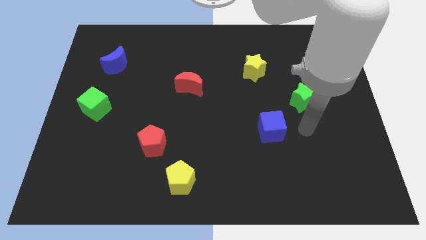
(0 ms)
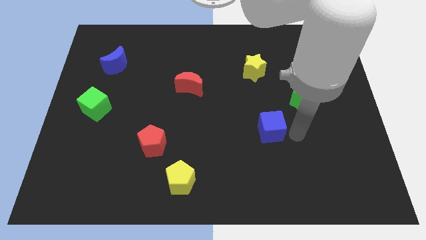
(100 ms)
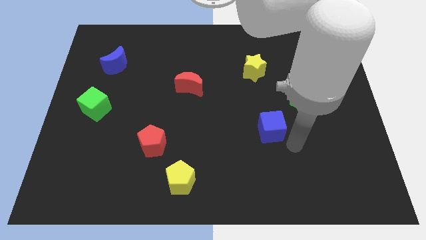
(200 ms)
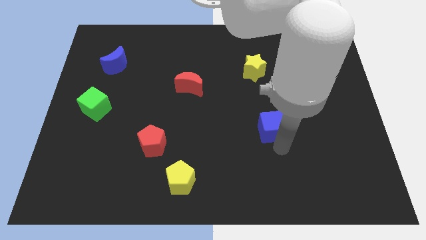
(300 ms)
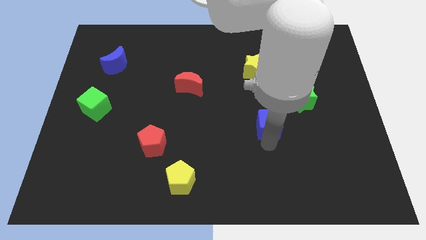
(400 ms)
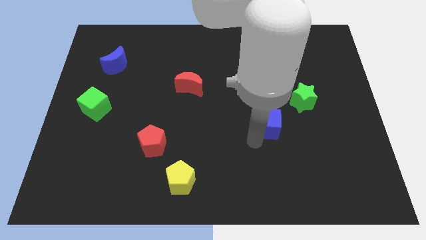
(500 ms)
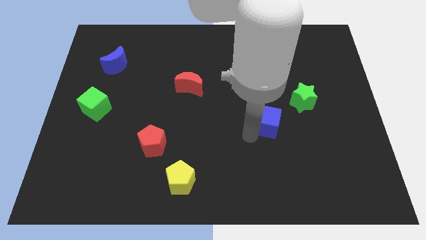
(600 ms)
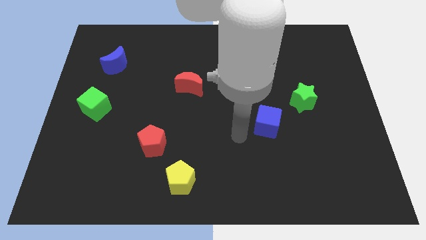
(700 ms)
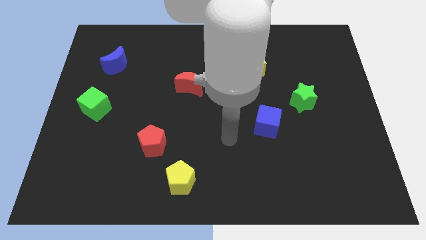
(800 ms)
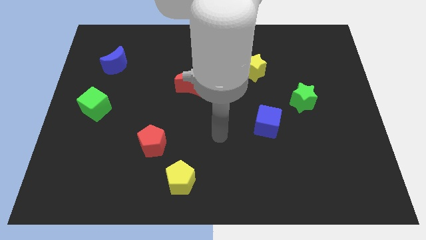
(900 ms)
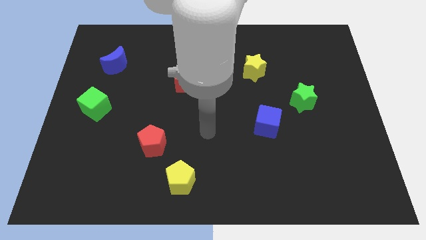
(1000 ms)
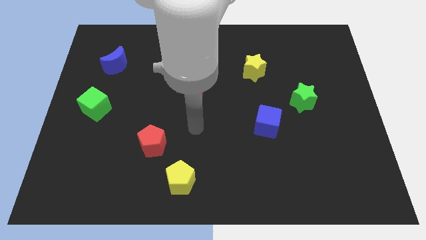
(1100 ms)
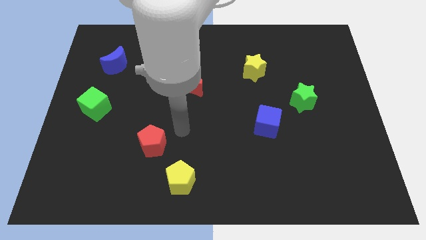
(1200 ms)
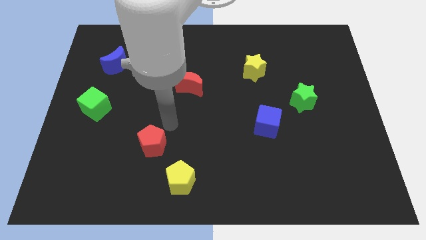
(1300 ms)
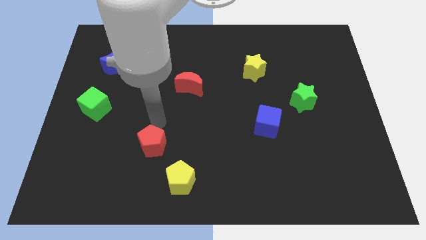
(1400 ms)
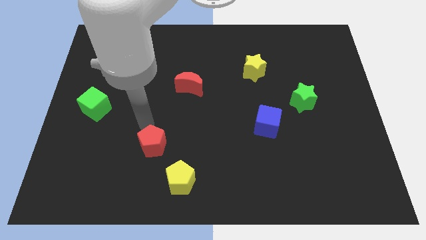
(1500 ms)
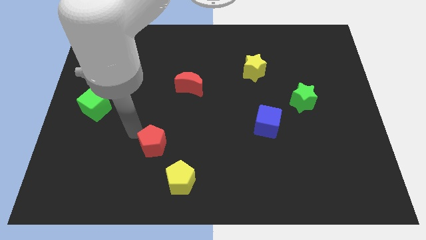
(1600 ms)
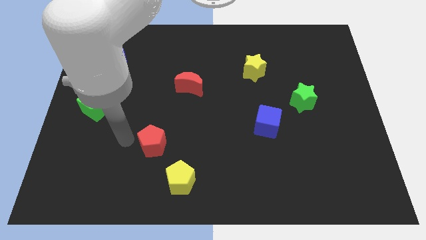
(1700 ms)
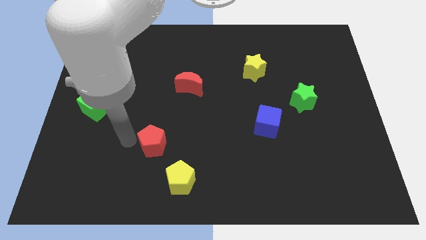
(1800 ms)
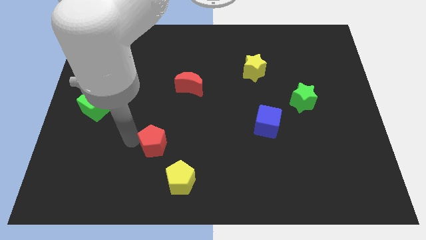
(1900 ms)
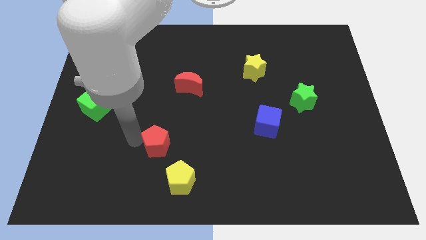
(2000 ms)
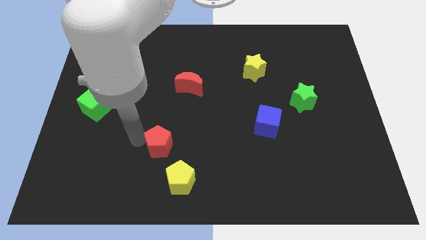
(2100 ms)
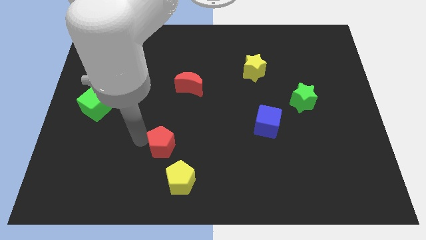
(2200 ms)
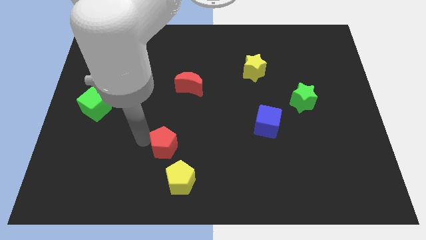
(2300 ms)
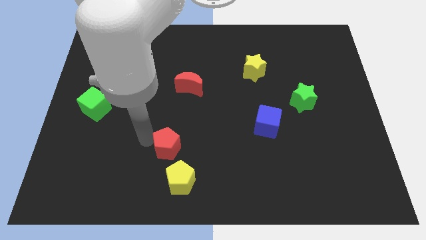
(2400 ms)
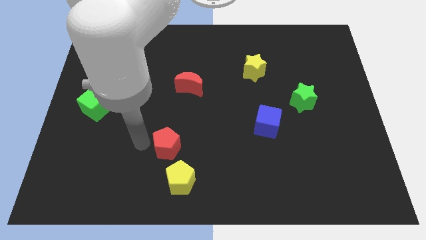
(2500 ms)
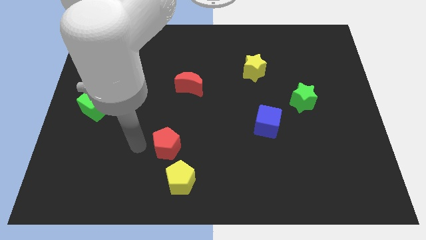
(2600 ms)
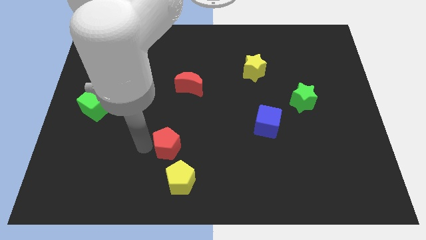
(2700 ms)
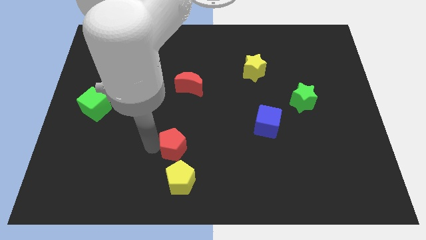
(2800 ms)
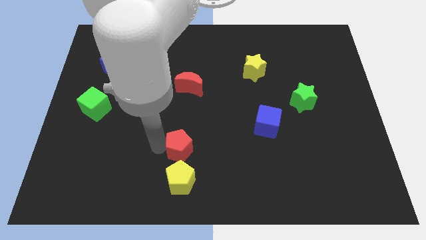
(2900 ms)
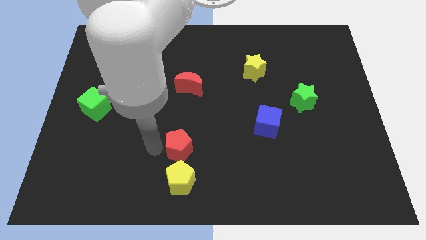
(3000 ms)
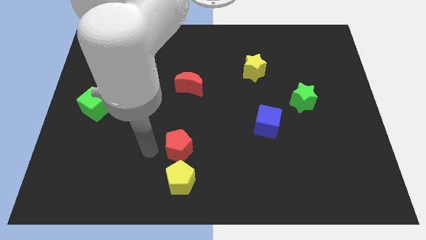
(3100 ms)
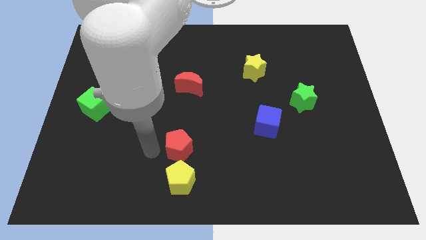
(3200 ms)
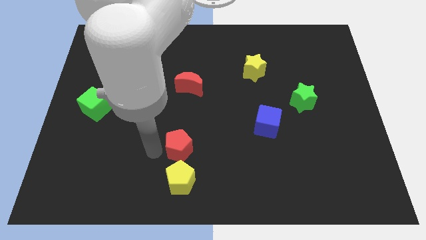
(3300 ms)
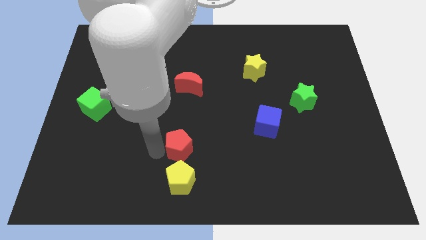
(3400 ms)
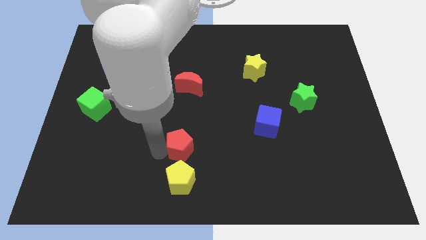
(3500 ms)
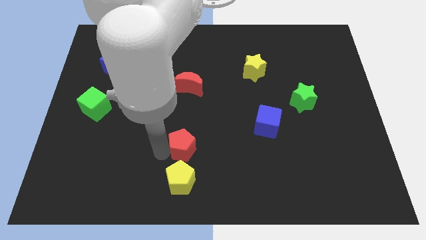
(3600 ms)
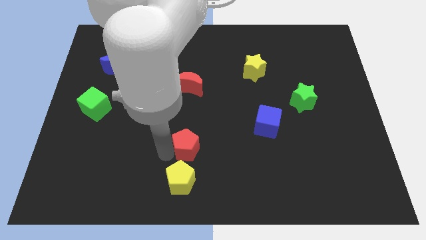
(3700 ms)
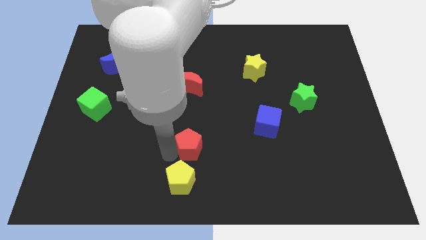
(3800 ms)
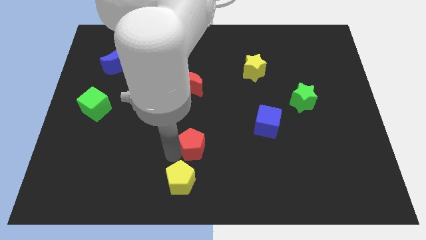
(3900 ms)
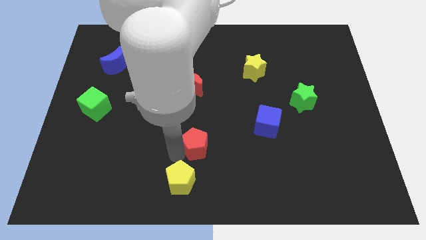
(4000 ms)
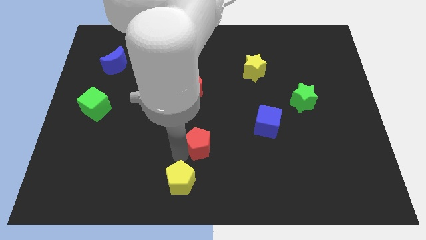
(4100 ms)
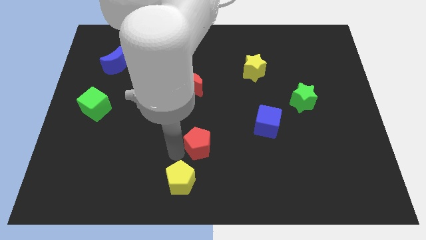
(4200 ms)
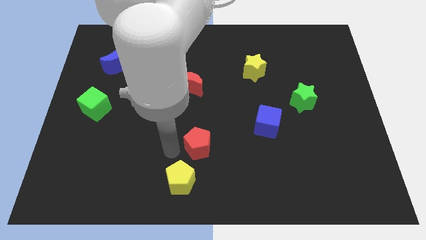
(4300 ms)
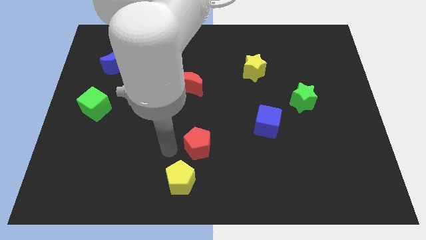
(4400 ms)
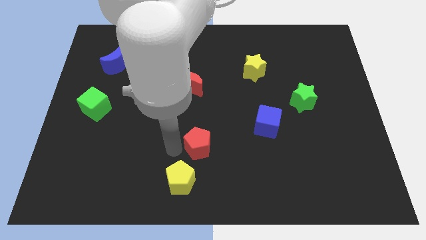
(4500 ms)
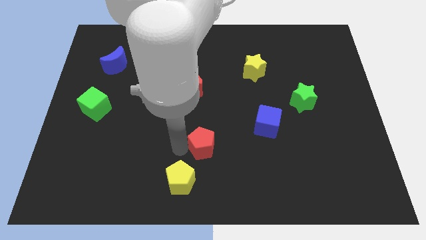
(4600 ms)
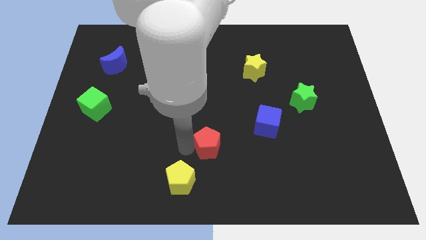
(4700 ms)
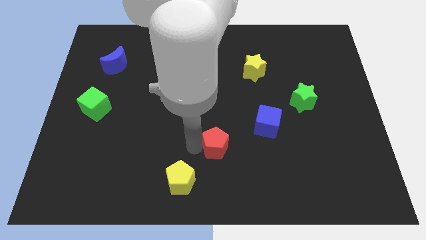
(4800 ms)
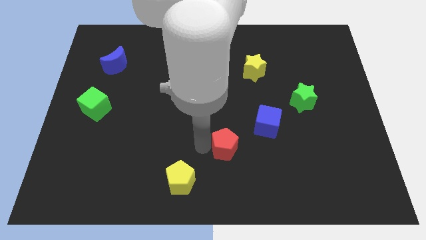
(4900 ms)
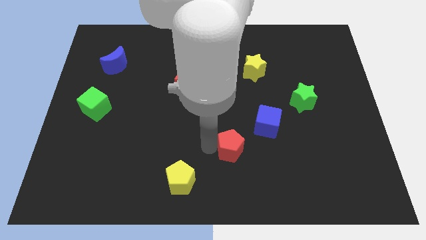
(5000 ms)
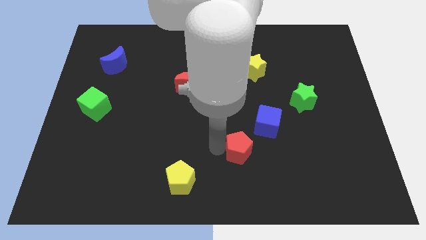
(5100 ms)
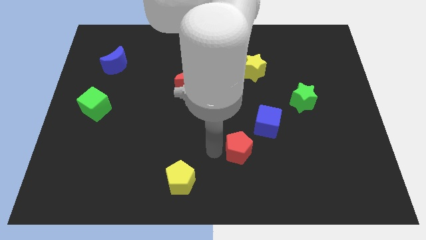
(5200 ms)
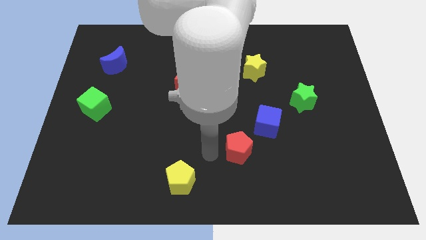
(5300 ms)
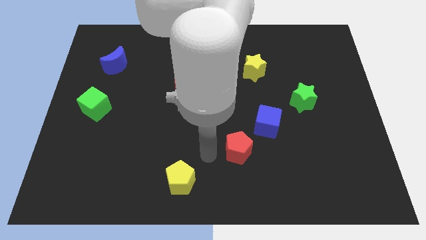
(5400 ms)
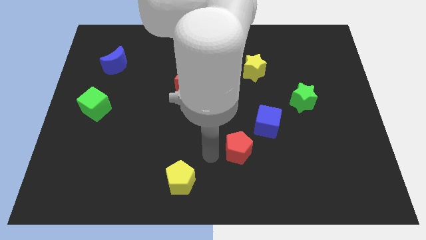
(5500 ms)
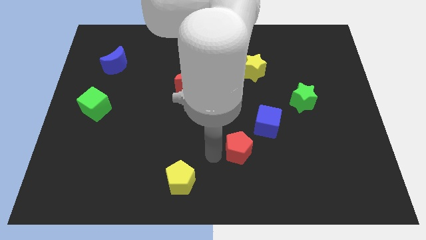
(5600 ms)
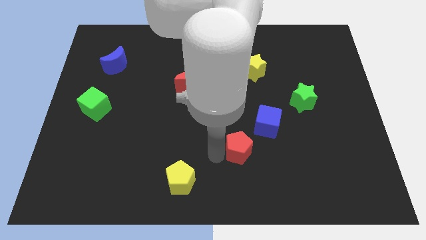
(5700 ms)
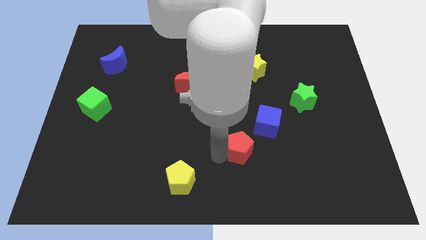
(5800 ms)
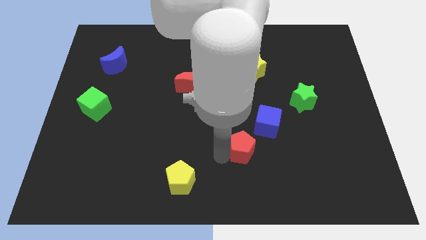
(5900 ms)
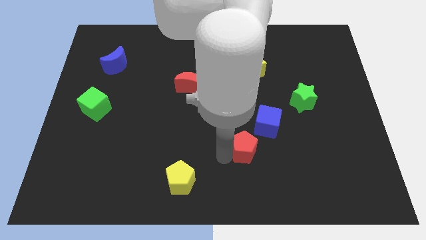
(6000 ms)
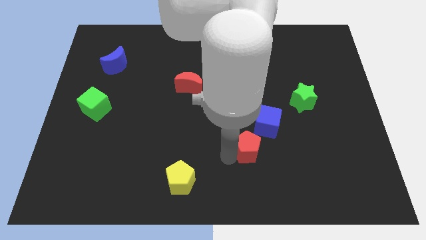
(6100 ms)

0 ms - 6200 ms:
push the red pentagon to the right

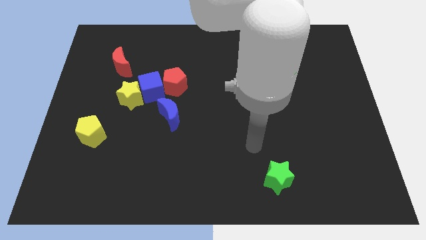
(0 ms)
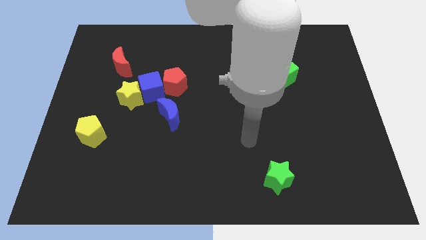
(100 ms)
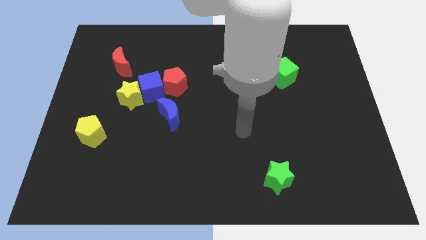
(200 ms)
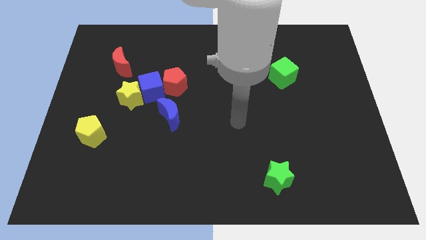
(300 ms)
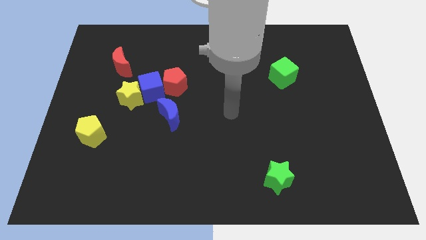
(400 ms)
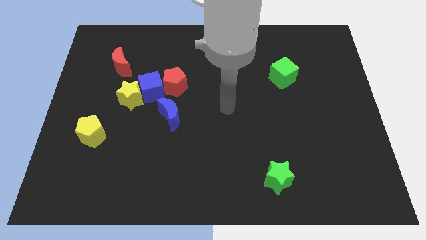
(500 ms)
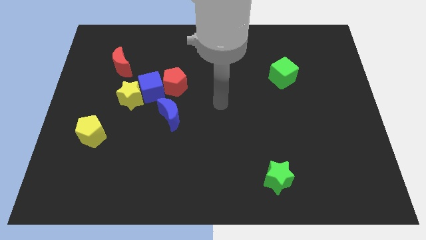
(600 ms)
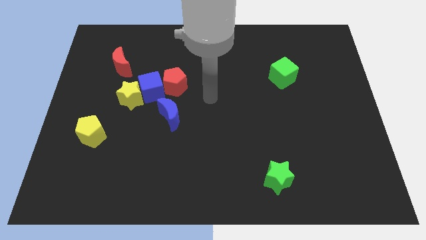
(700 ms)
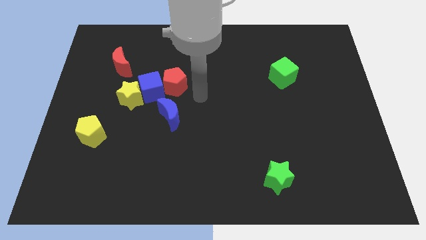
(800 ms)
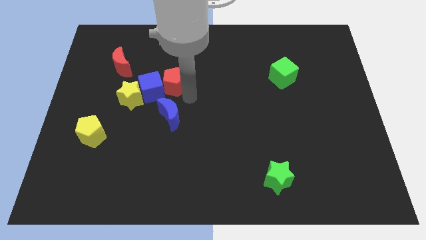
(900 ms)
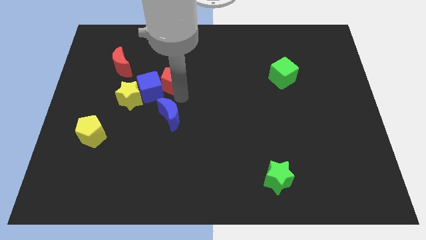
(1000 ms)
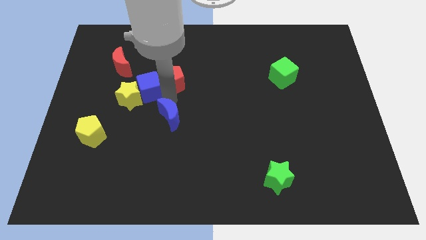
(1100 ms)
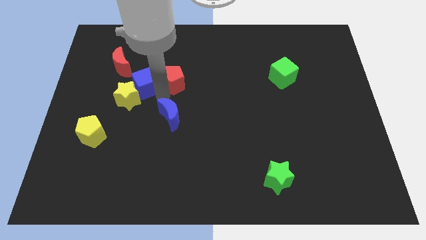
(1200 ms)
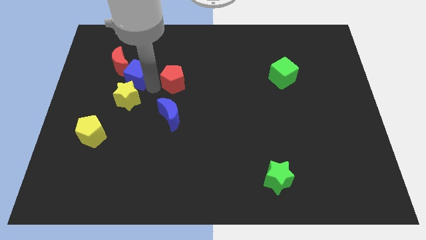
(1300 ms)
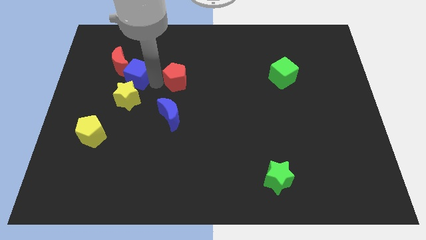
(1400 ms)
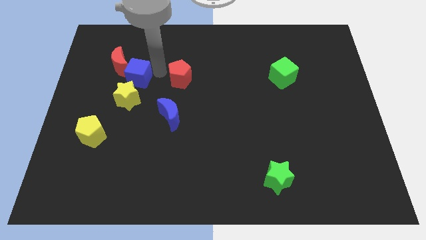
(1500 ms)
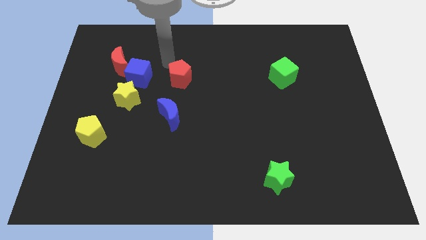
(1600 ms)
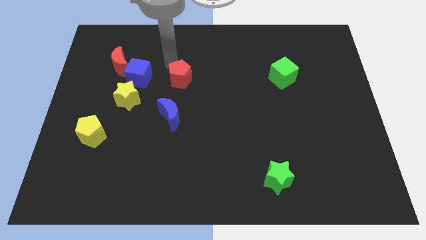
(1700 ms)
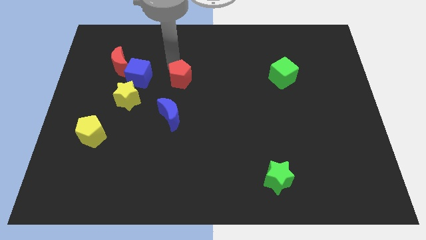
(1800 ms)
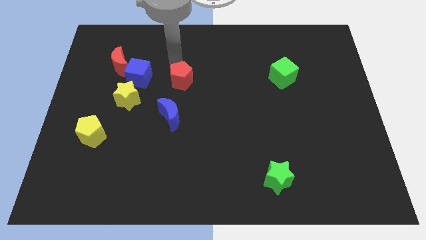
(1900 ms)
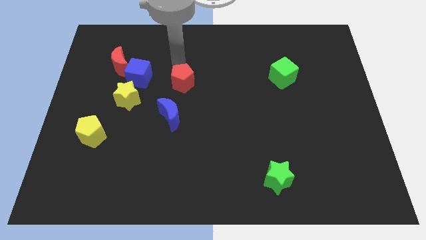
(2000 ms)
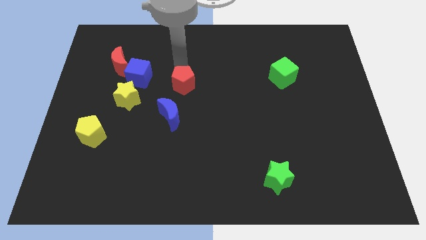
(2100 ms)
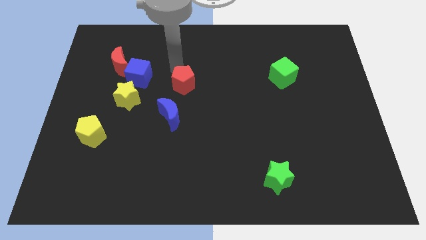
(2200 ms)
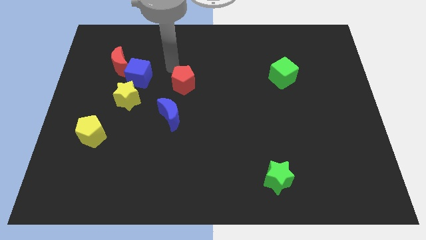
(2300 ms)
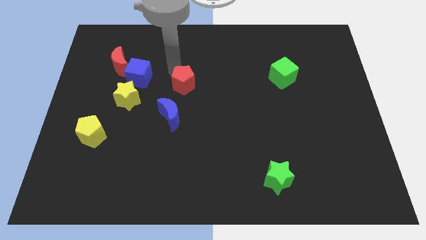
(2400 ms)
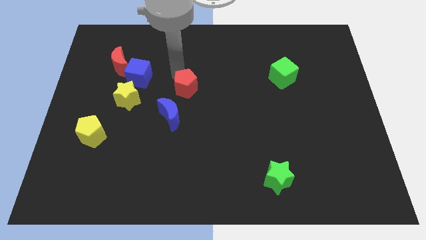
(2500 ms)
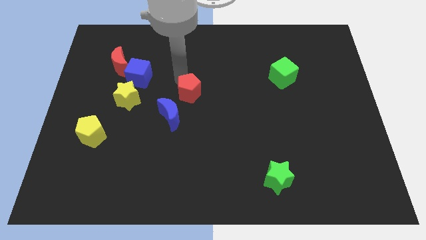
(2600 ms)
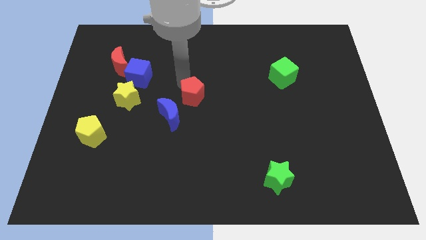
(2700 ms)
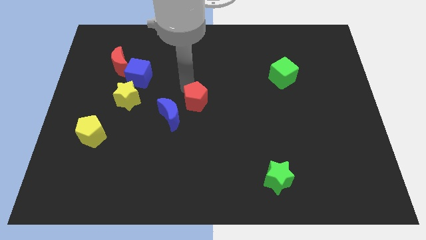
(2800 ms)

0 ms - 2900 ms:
slide the red pentagon slightly down and to the right diagonally
